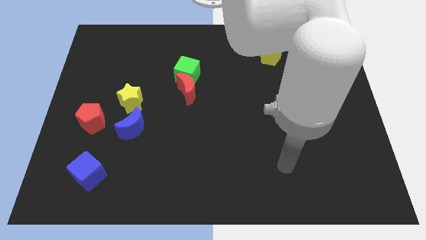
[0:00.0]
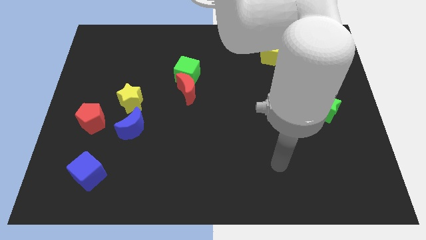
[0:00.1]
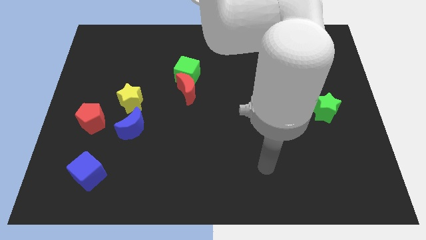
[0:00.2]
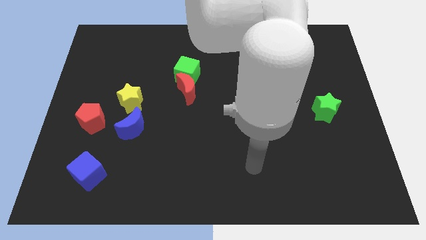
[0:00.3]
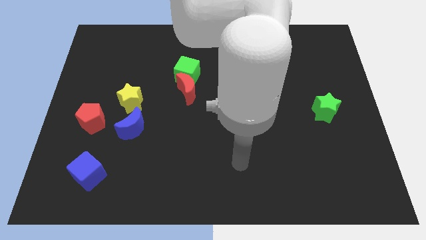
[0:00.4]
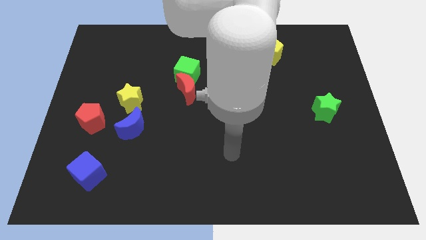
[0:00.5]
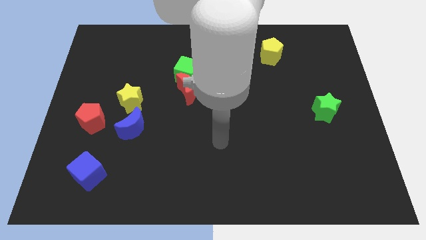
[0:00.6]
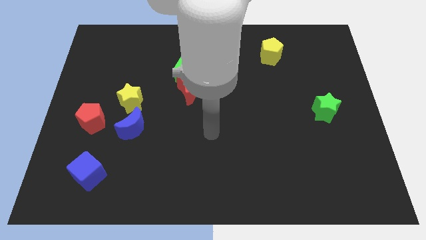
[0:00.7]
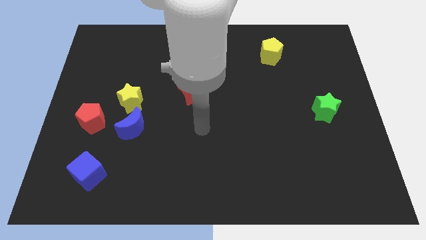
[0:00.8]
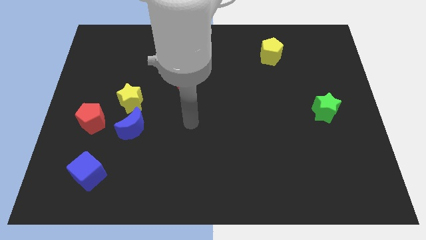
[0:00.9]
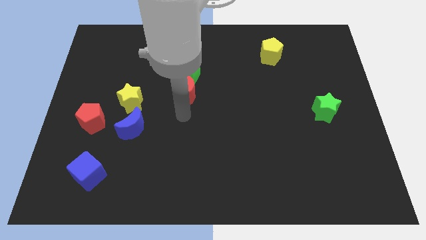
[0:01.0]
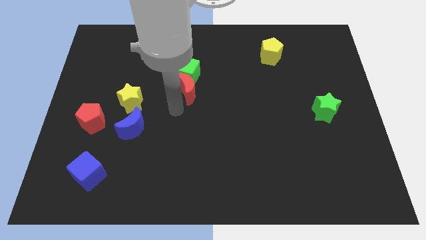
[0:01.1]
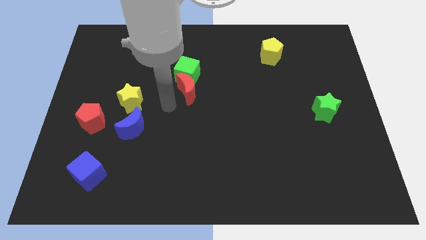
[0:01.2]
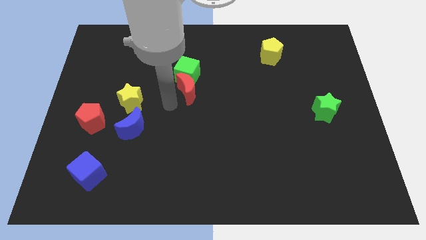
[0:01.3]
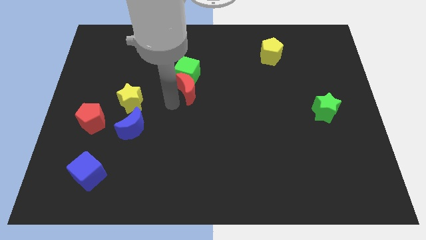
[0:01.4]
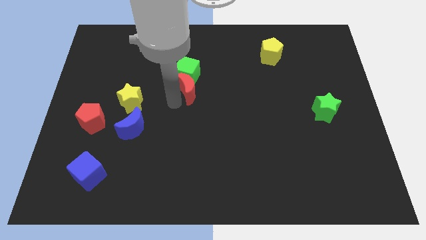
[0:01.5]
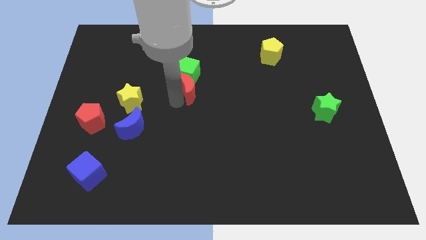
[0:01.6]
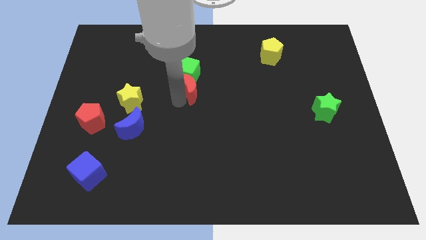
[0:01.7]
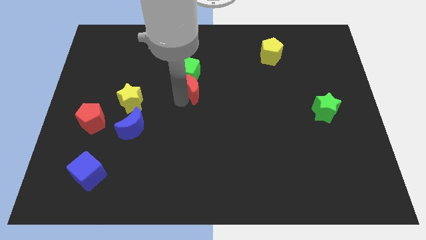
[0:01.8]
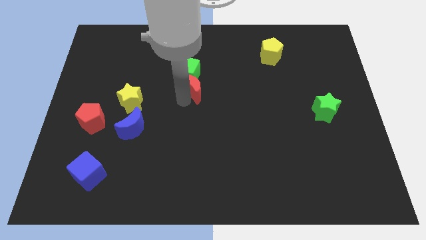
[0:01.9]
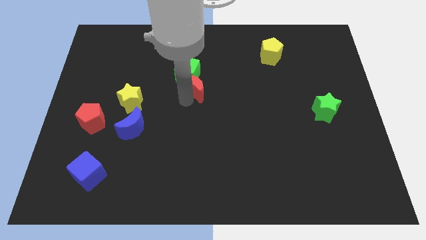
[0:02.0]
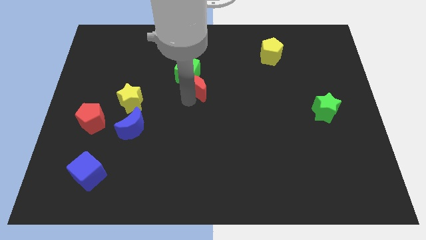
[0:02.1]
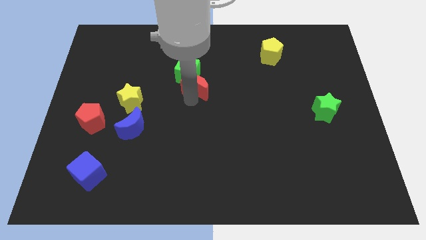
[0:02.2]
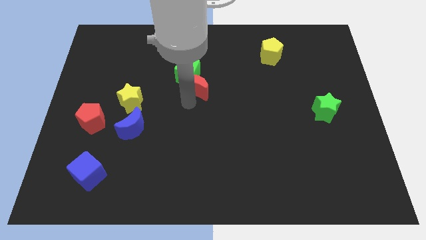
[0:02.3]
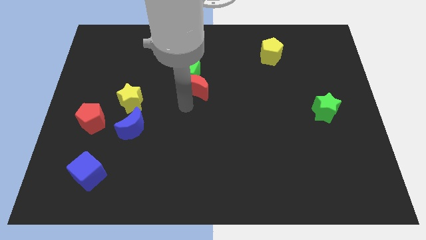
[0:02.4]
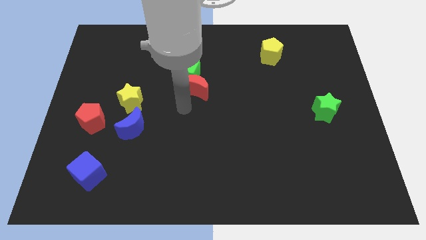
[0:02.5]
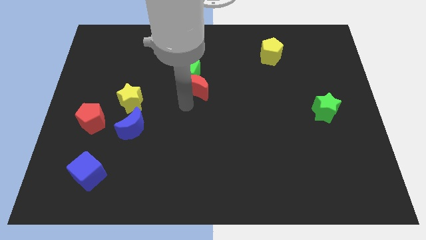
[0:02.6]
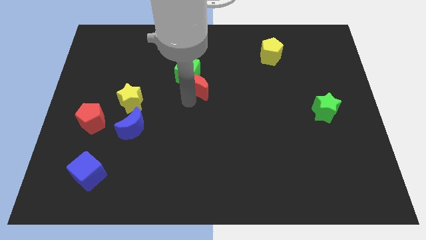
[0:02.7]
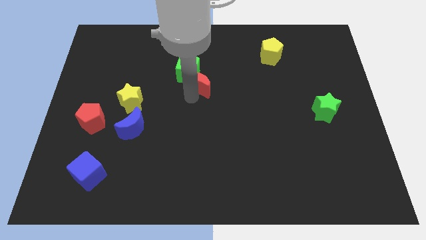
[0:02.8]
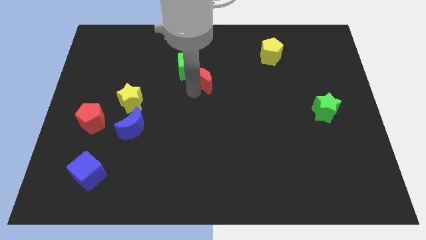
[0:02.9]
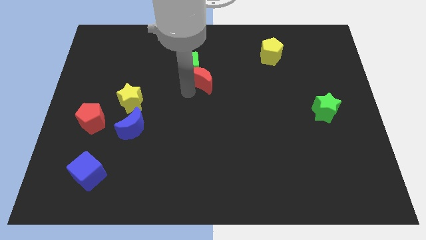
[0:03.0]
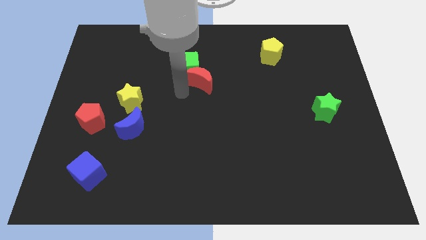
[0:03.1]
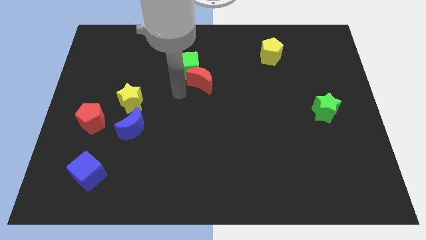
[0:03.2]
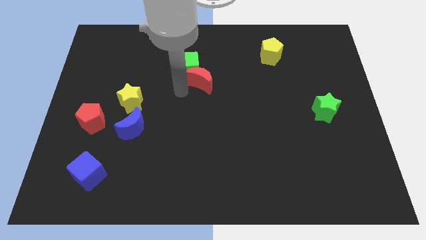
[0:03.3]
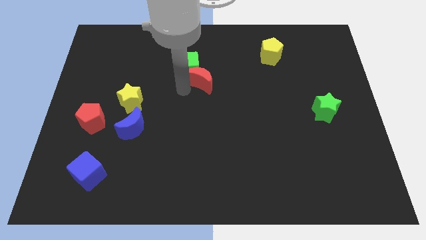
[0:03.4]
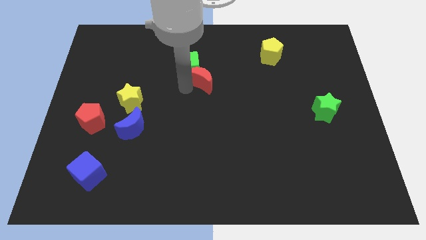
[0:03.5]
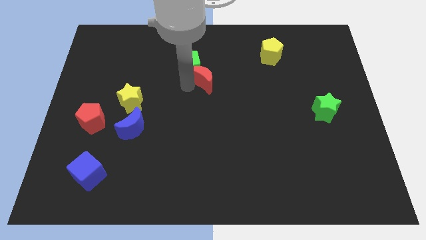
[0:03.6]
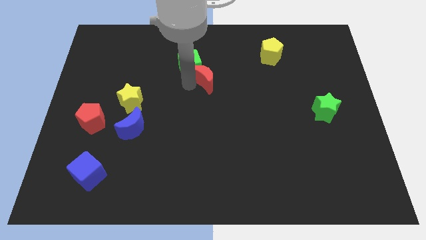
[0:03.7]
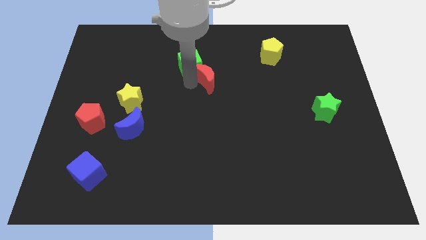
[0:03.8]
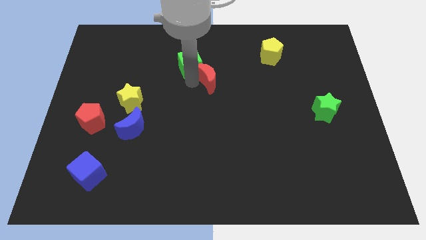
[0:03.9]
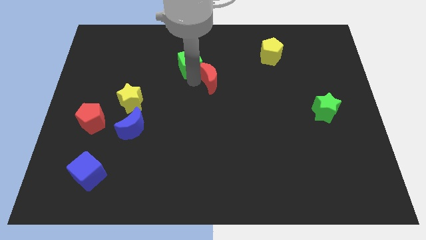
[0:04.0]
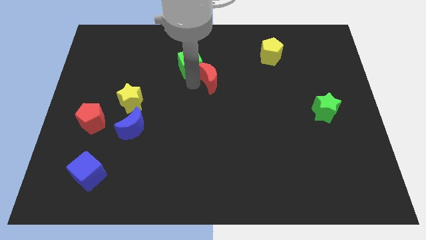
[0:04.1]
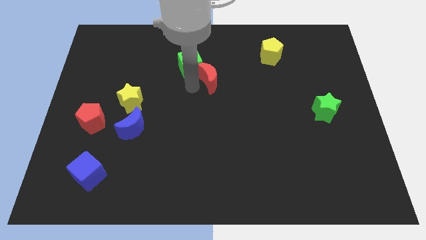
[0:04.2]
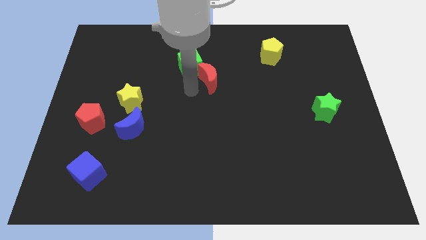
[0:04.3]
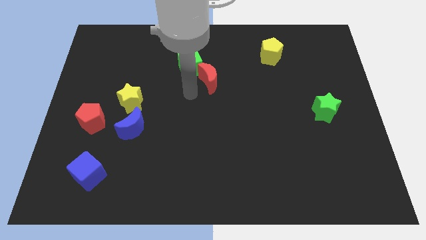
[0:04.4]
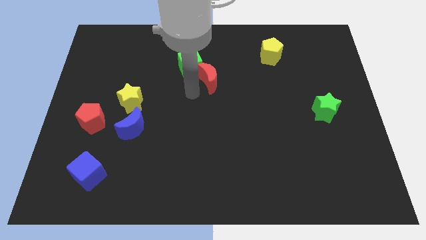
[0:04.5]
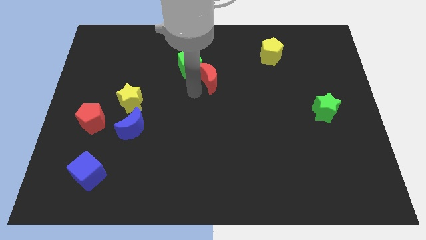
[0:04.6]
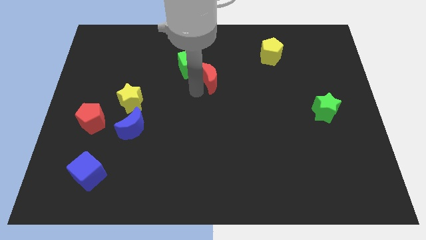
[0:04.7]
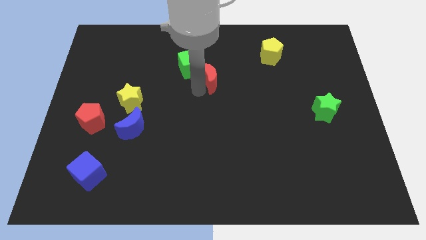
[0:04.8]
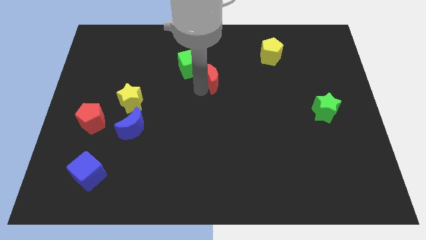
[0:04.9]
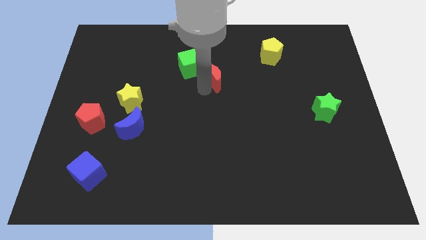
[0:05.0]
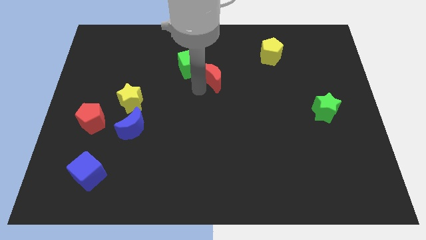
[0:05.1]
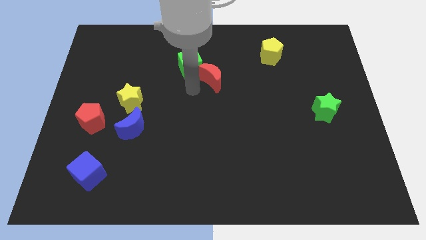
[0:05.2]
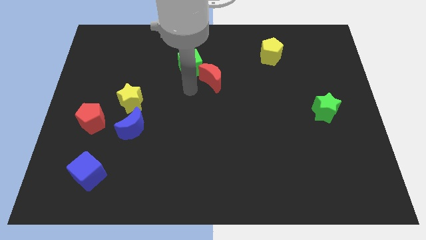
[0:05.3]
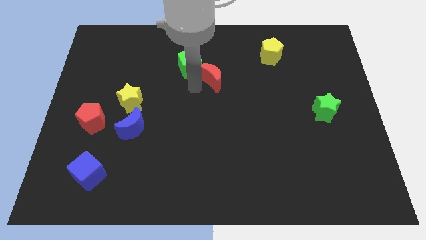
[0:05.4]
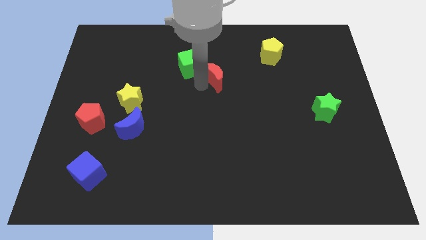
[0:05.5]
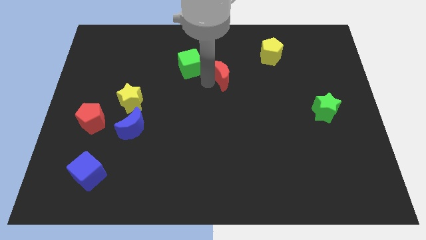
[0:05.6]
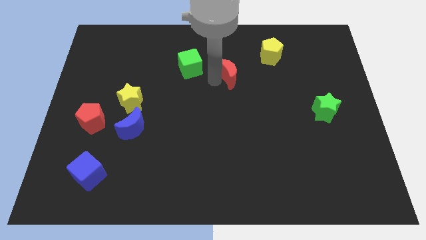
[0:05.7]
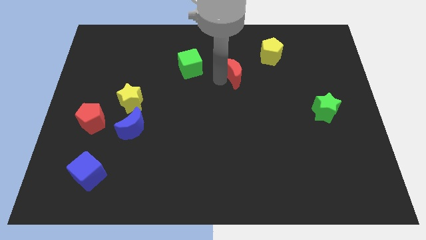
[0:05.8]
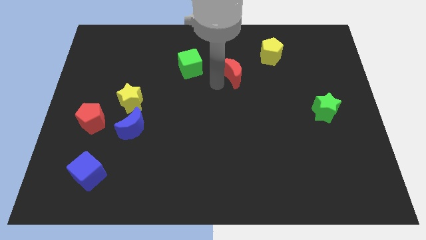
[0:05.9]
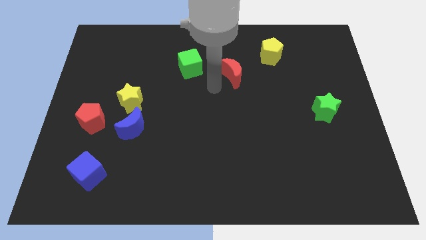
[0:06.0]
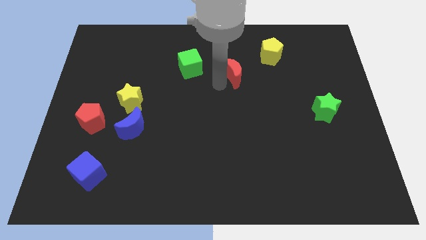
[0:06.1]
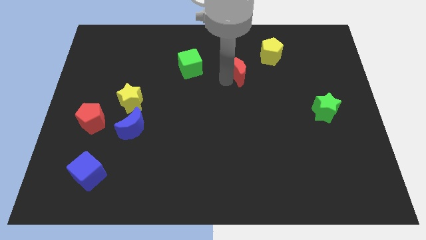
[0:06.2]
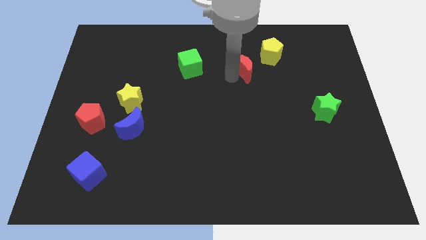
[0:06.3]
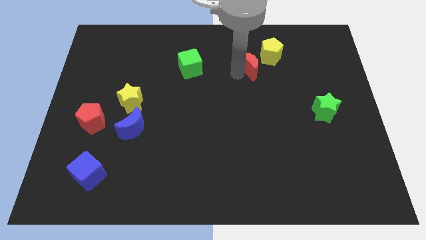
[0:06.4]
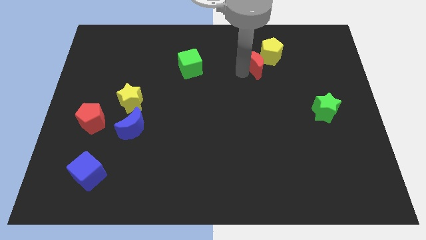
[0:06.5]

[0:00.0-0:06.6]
slide the red moon next to the yellow pentagon
